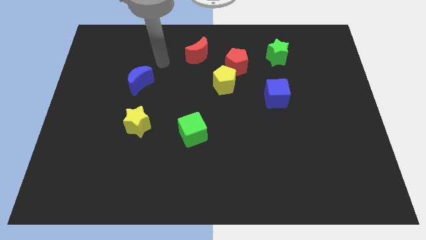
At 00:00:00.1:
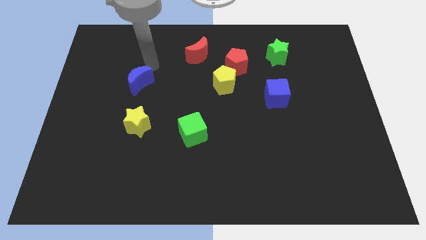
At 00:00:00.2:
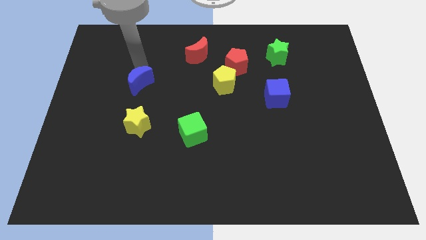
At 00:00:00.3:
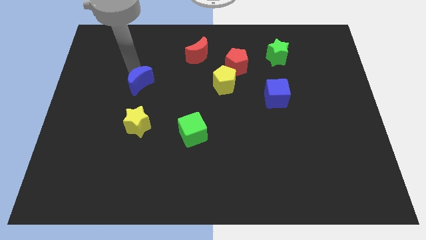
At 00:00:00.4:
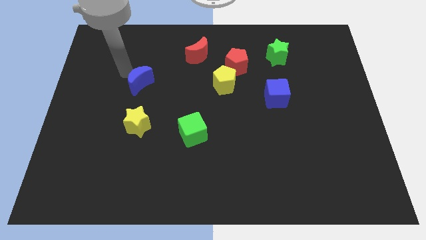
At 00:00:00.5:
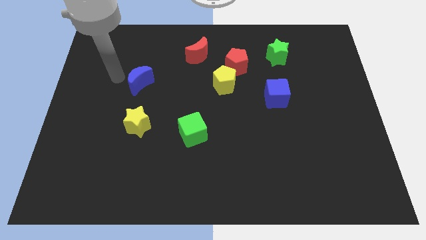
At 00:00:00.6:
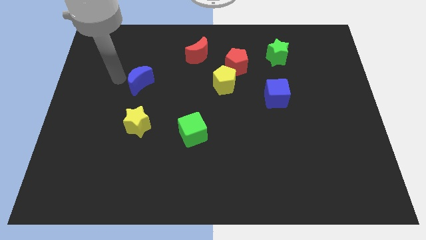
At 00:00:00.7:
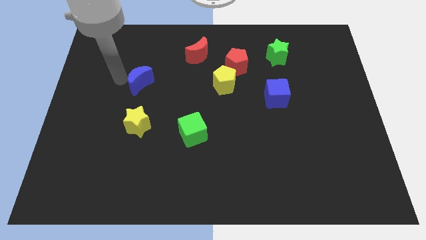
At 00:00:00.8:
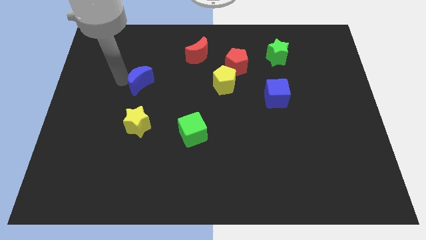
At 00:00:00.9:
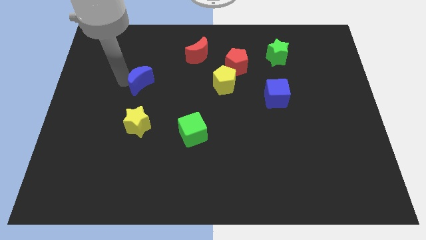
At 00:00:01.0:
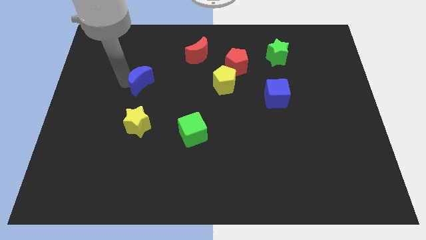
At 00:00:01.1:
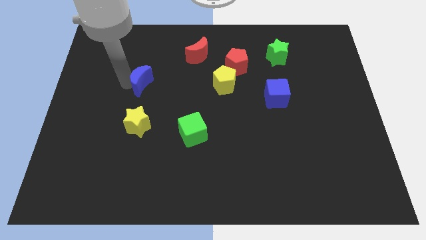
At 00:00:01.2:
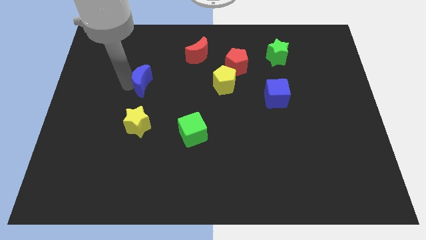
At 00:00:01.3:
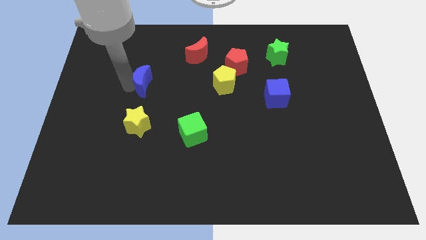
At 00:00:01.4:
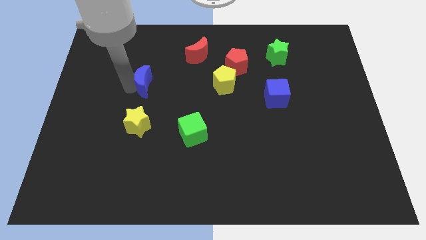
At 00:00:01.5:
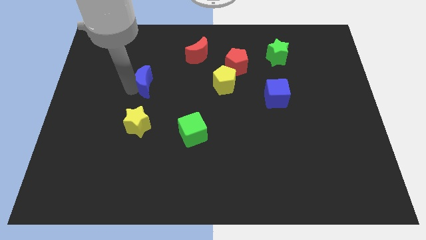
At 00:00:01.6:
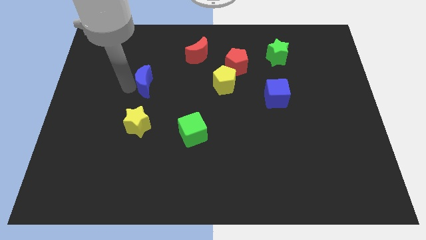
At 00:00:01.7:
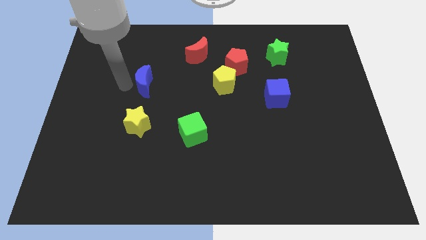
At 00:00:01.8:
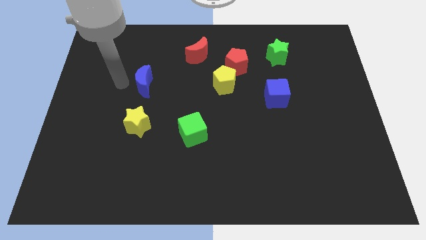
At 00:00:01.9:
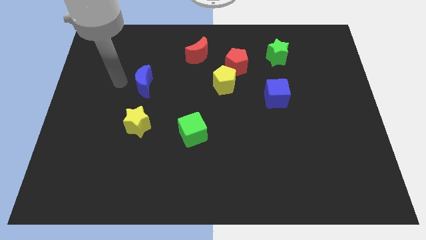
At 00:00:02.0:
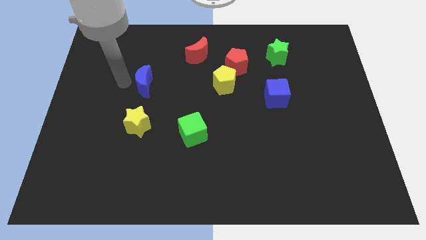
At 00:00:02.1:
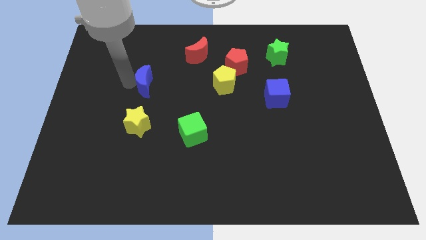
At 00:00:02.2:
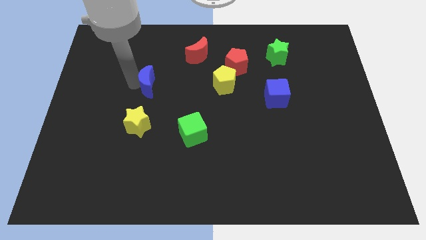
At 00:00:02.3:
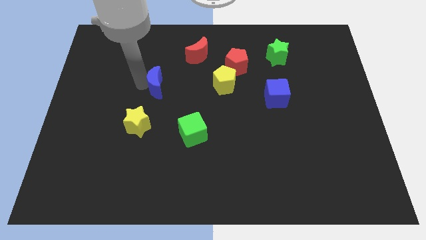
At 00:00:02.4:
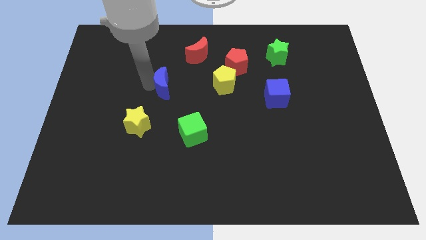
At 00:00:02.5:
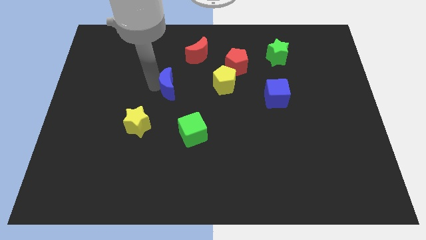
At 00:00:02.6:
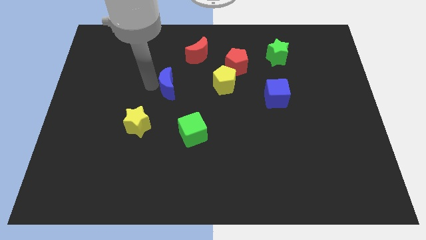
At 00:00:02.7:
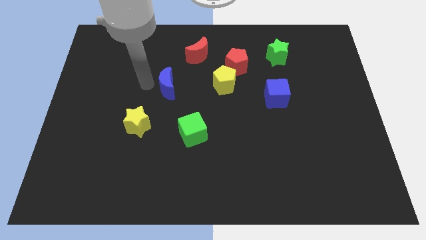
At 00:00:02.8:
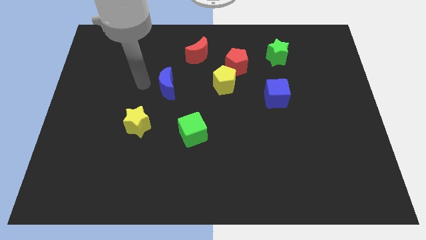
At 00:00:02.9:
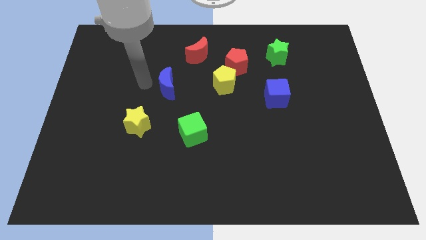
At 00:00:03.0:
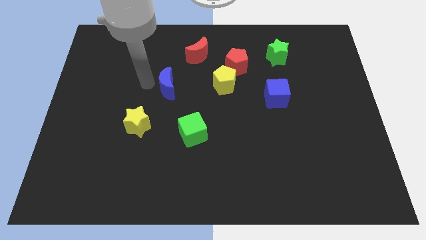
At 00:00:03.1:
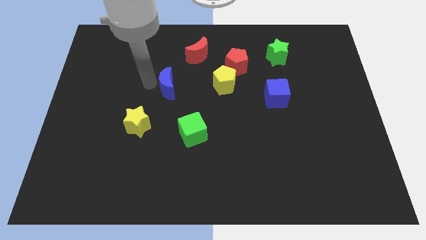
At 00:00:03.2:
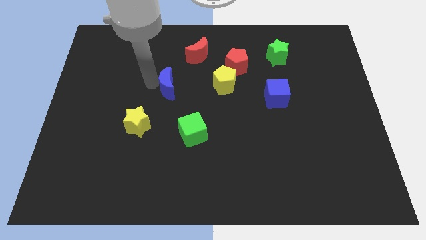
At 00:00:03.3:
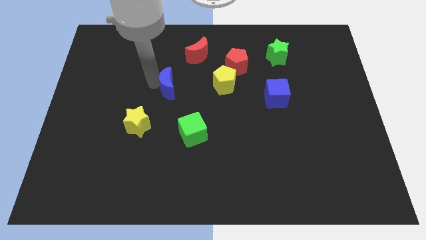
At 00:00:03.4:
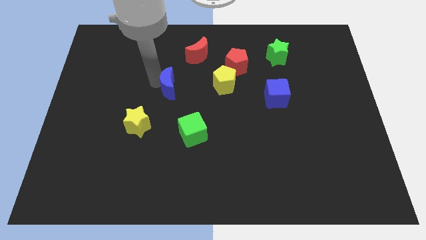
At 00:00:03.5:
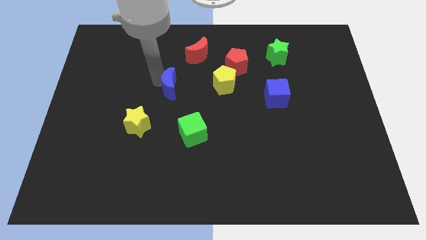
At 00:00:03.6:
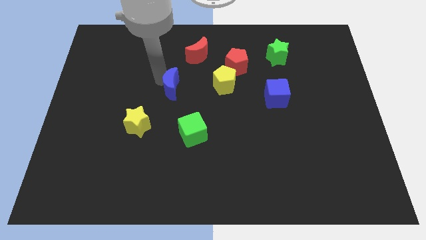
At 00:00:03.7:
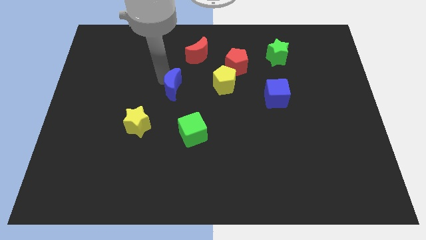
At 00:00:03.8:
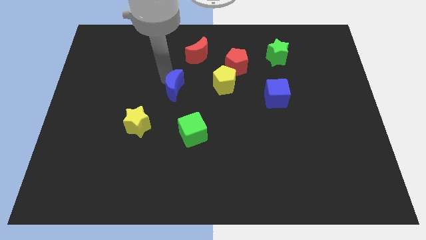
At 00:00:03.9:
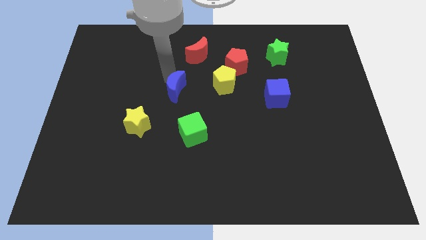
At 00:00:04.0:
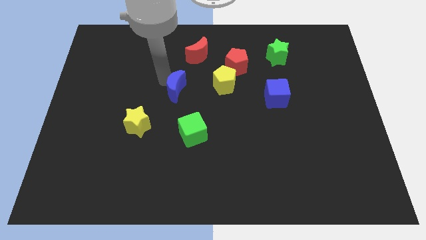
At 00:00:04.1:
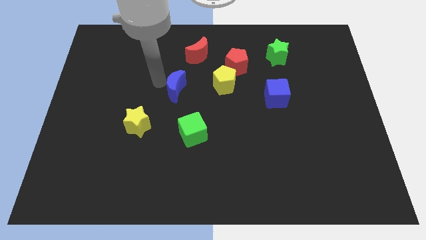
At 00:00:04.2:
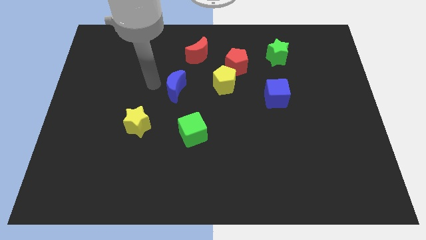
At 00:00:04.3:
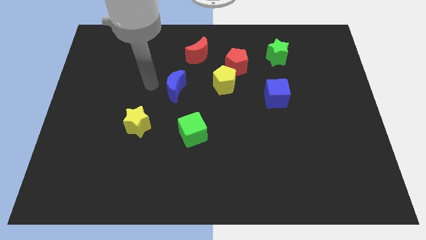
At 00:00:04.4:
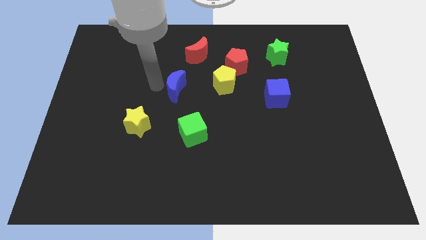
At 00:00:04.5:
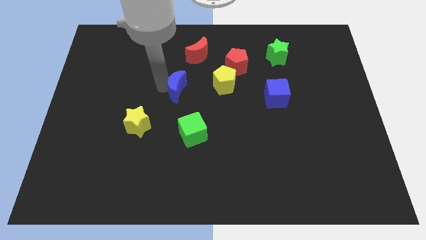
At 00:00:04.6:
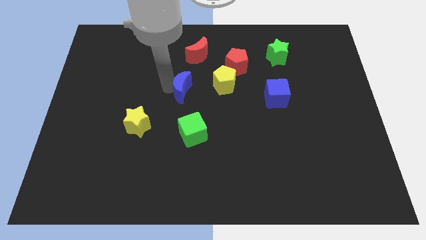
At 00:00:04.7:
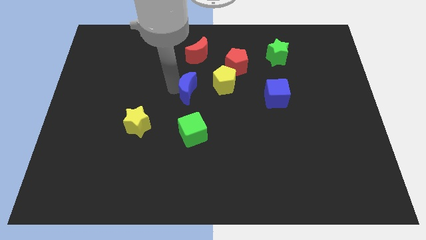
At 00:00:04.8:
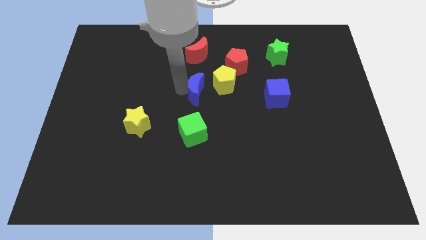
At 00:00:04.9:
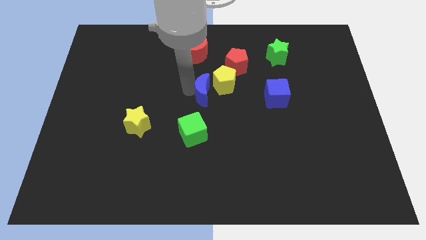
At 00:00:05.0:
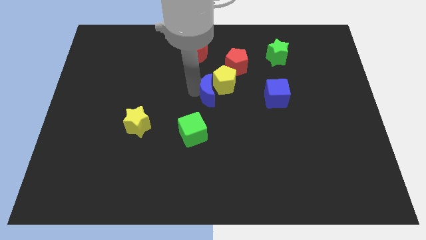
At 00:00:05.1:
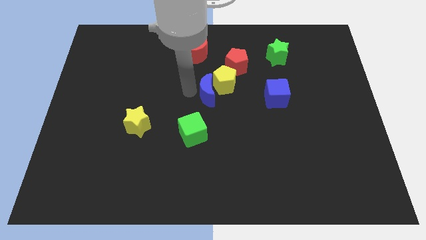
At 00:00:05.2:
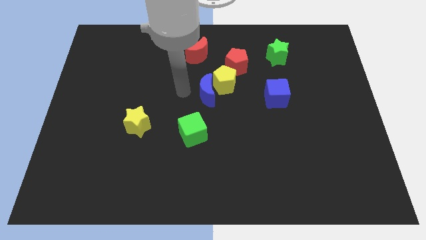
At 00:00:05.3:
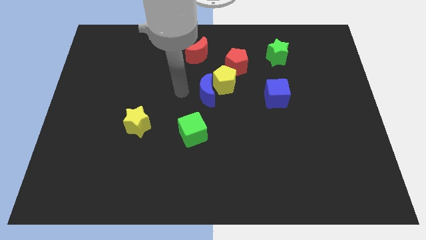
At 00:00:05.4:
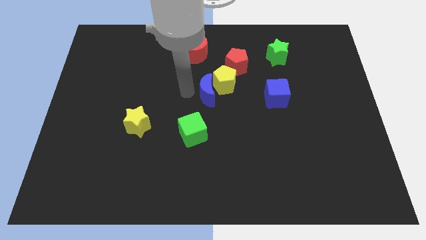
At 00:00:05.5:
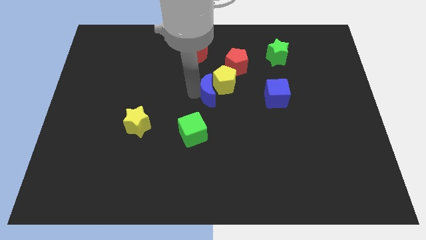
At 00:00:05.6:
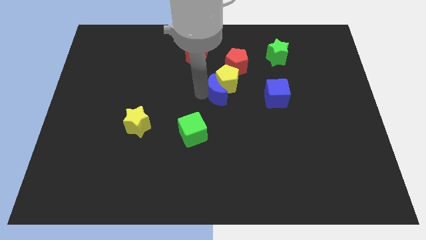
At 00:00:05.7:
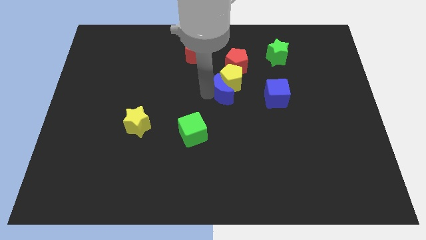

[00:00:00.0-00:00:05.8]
move the blue moon to the right

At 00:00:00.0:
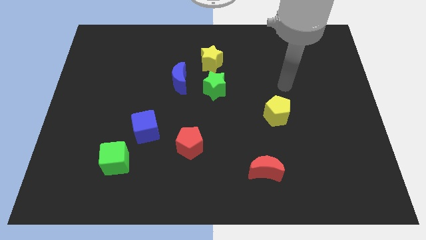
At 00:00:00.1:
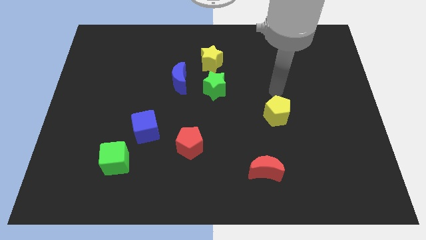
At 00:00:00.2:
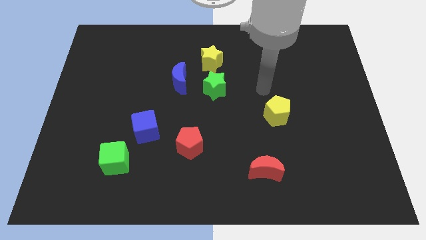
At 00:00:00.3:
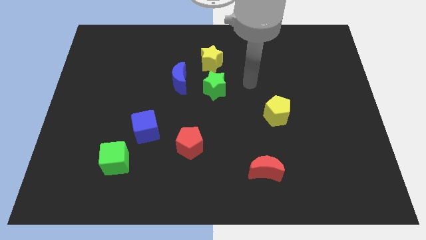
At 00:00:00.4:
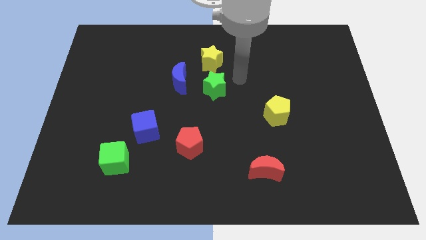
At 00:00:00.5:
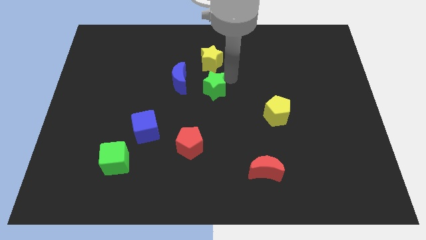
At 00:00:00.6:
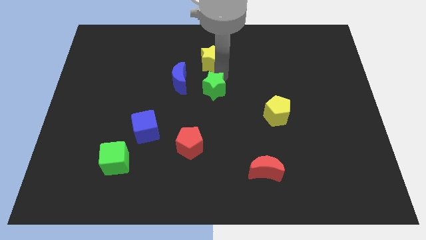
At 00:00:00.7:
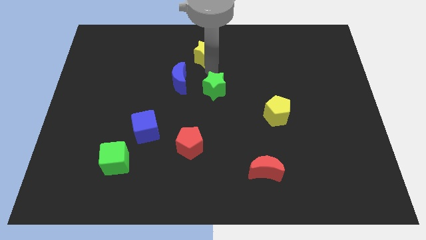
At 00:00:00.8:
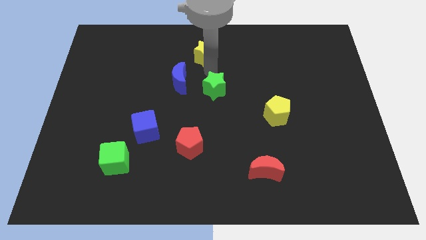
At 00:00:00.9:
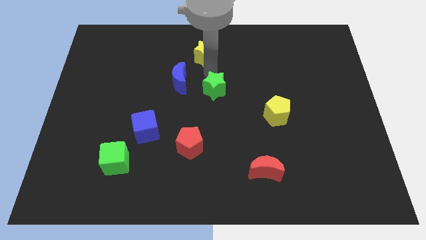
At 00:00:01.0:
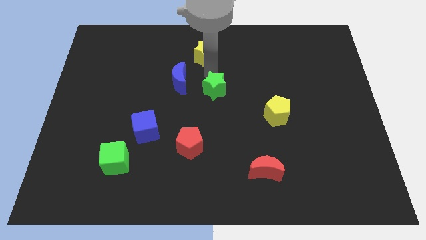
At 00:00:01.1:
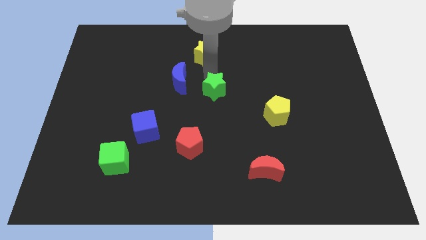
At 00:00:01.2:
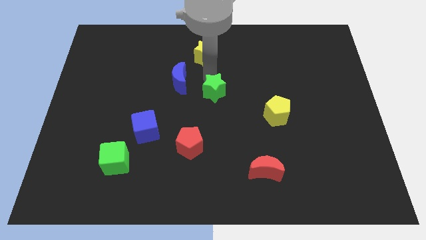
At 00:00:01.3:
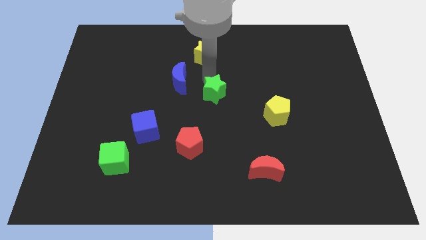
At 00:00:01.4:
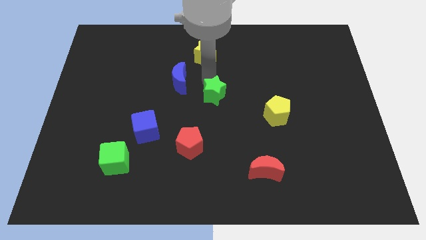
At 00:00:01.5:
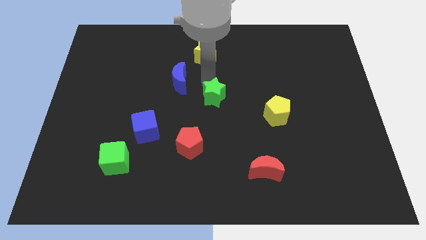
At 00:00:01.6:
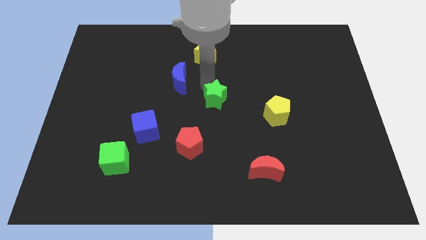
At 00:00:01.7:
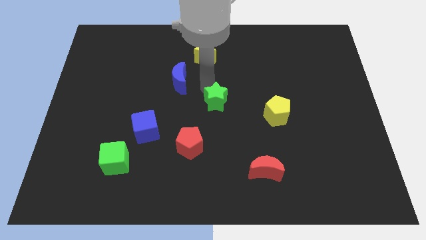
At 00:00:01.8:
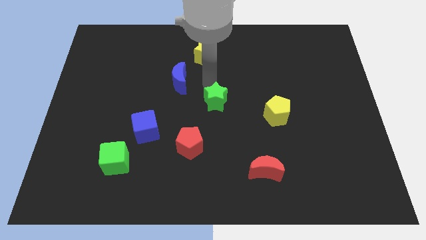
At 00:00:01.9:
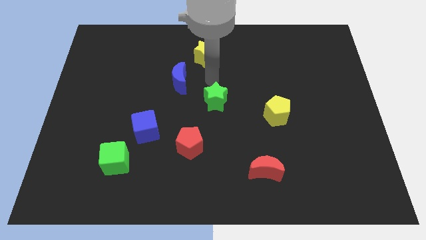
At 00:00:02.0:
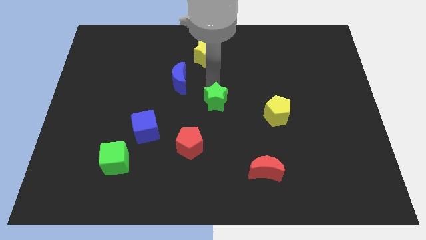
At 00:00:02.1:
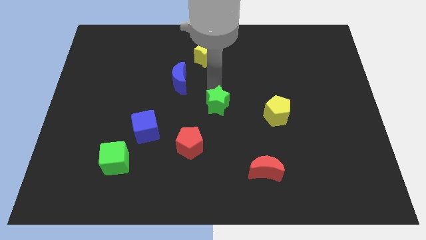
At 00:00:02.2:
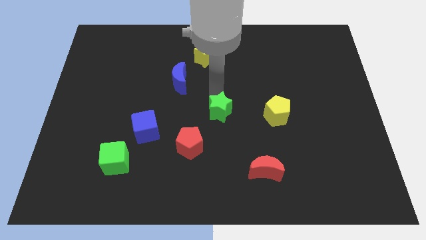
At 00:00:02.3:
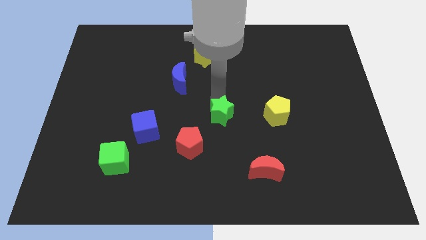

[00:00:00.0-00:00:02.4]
move the green star down somewhat
